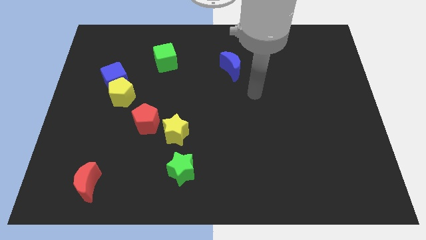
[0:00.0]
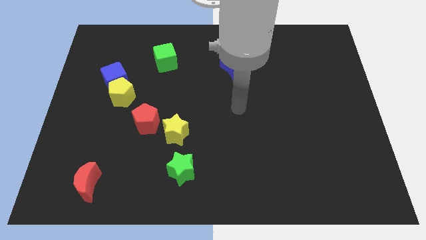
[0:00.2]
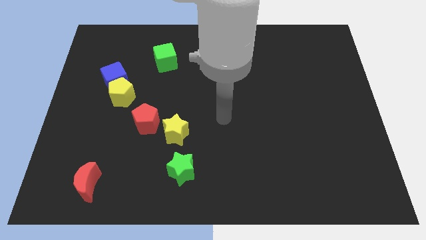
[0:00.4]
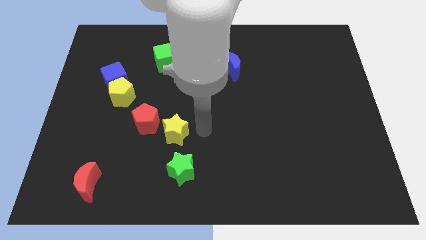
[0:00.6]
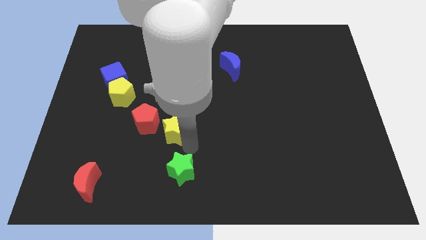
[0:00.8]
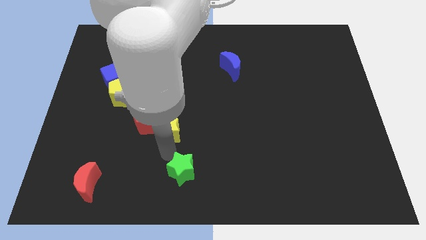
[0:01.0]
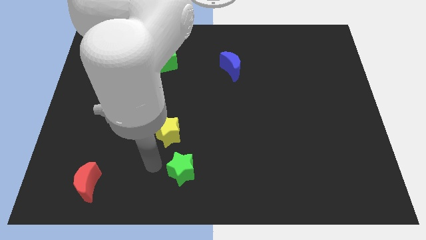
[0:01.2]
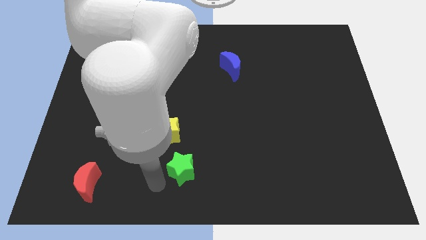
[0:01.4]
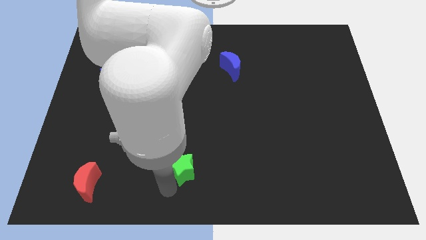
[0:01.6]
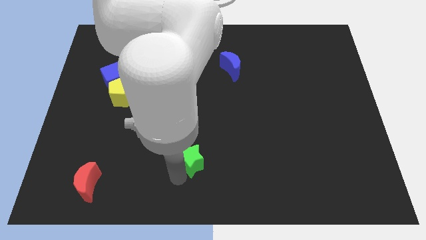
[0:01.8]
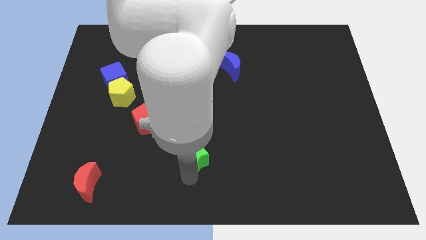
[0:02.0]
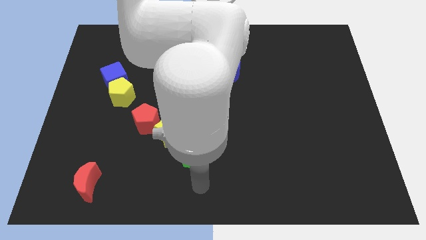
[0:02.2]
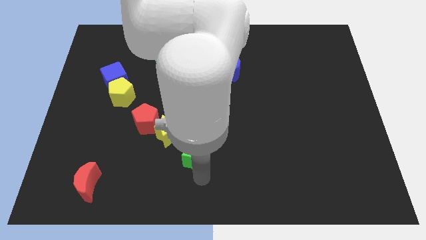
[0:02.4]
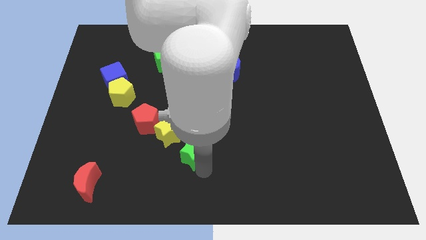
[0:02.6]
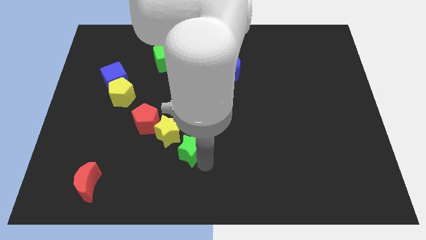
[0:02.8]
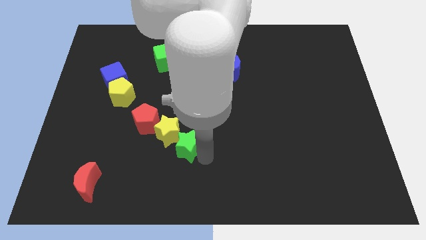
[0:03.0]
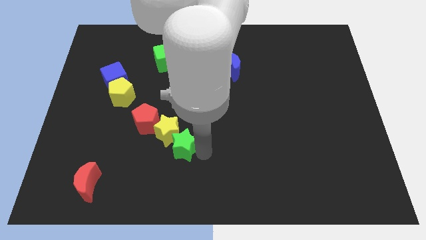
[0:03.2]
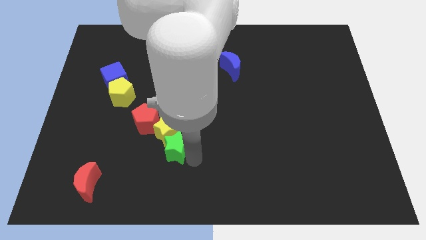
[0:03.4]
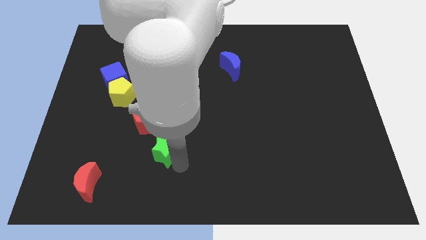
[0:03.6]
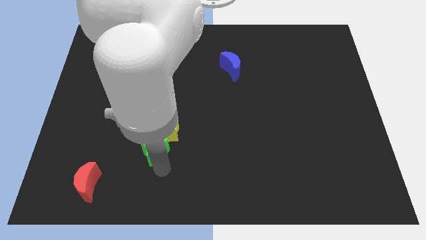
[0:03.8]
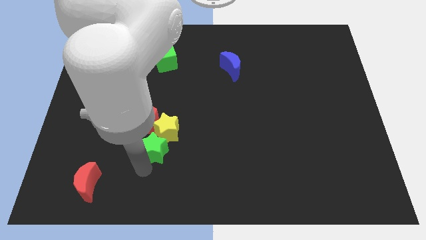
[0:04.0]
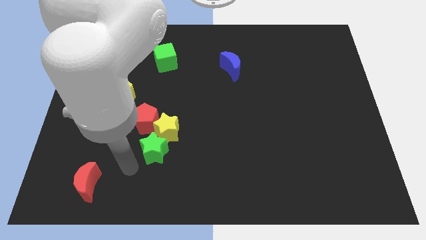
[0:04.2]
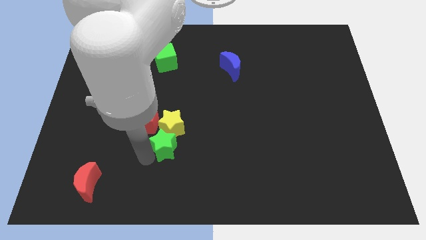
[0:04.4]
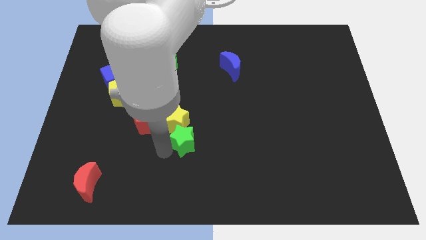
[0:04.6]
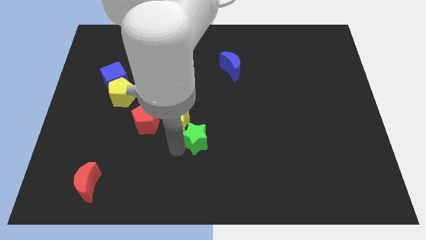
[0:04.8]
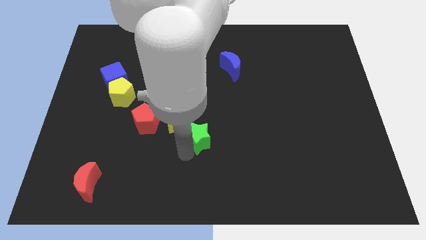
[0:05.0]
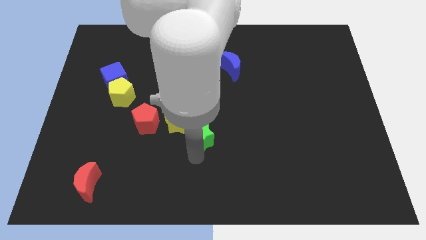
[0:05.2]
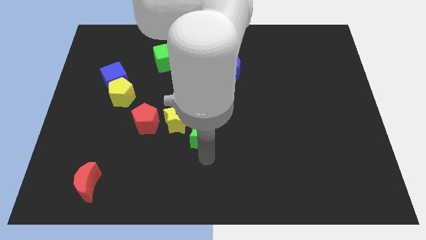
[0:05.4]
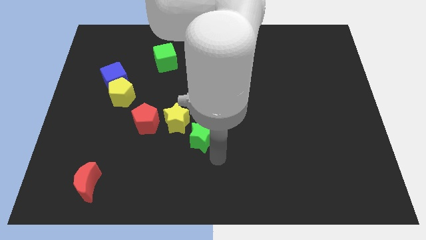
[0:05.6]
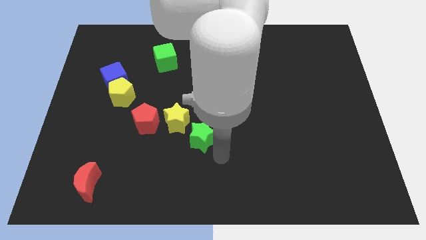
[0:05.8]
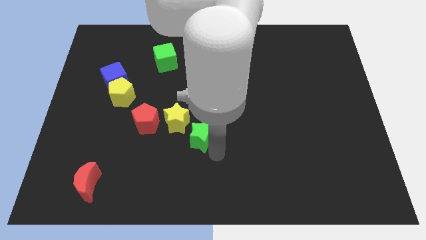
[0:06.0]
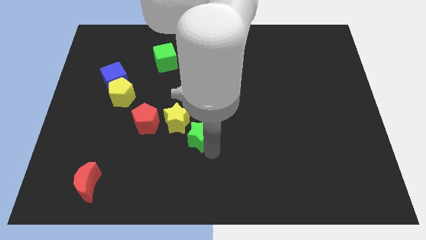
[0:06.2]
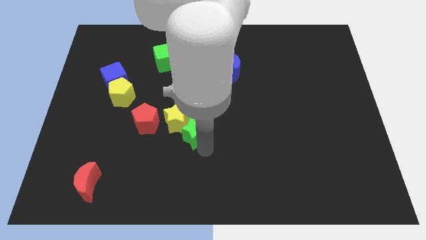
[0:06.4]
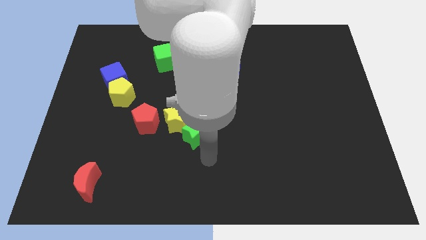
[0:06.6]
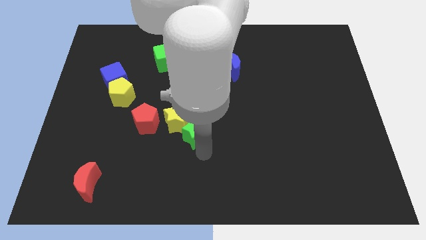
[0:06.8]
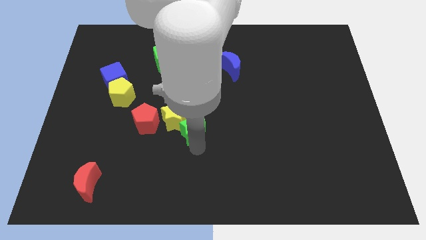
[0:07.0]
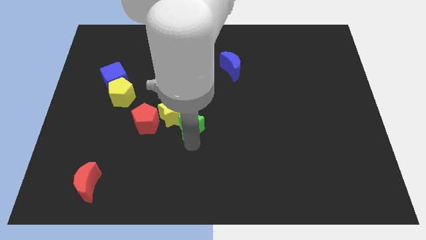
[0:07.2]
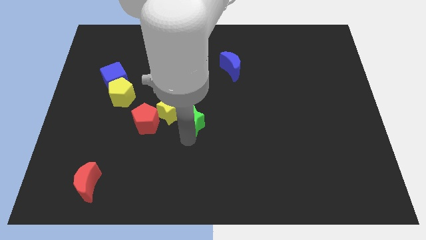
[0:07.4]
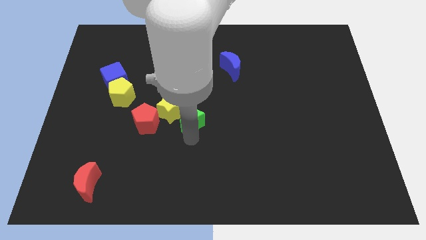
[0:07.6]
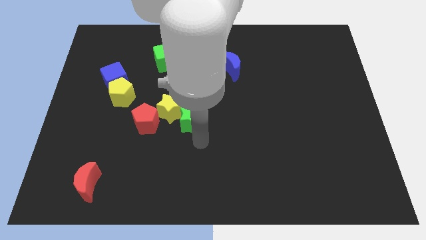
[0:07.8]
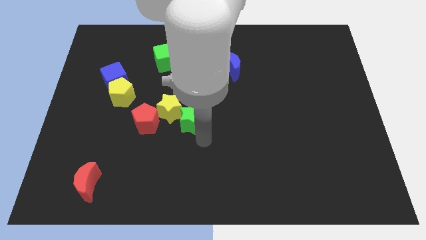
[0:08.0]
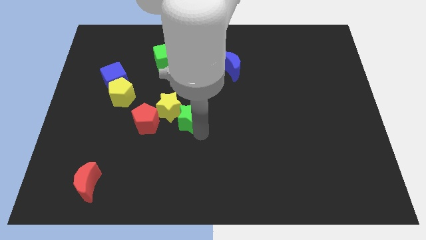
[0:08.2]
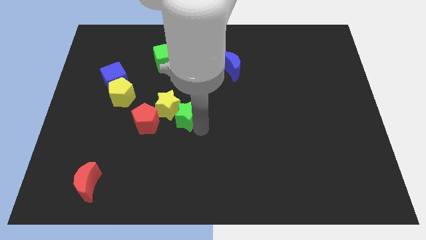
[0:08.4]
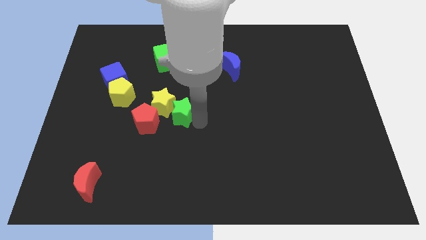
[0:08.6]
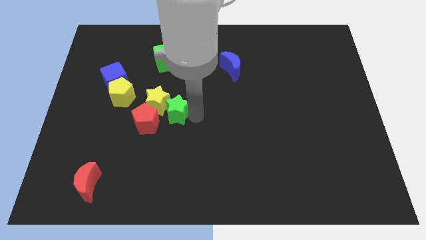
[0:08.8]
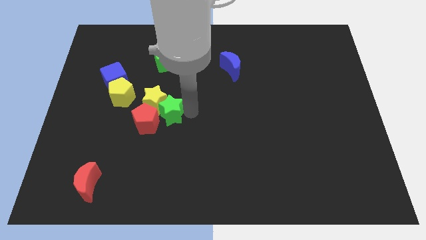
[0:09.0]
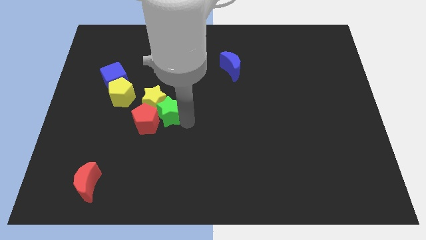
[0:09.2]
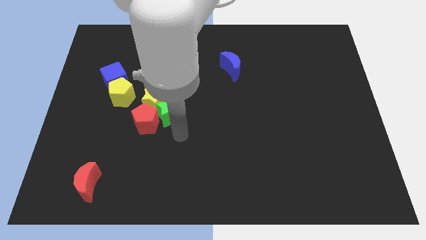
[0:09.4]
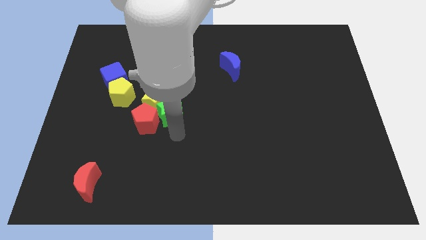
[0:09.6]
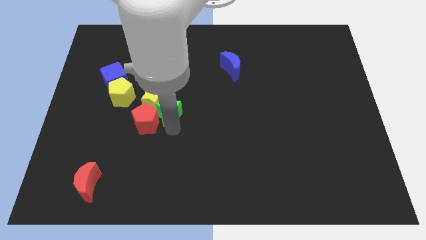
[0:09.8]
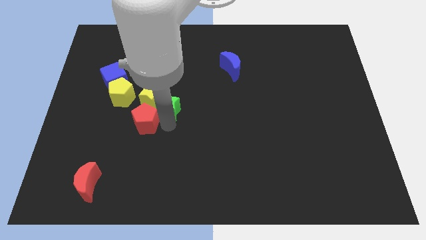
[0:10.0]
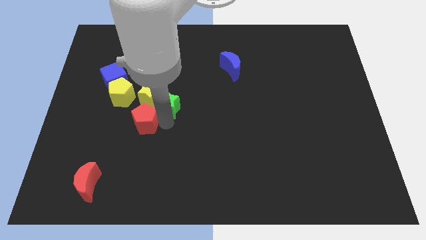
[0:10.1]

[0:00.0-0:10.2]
move the green star below the green cube

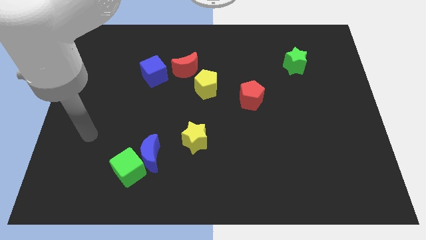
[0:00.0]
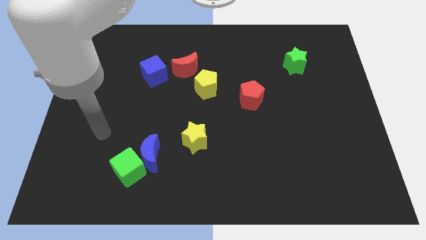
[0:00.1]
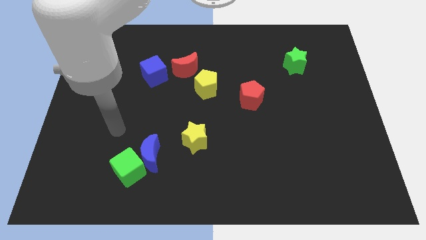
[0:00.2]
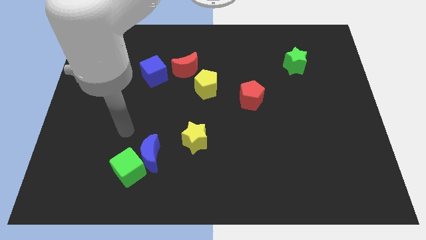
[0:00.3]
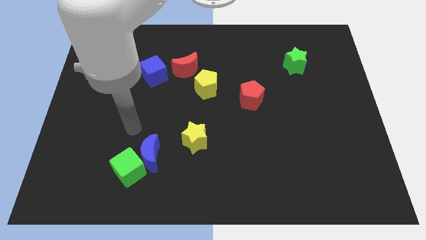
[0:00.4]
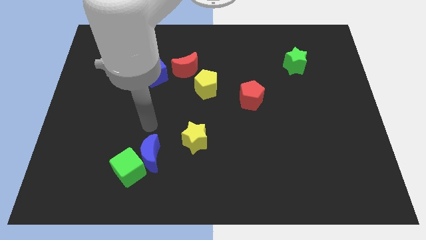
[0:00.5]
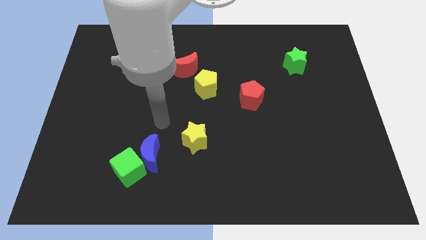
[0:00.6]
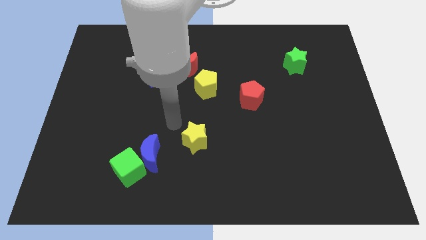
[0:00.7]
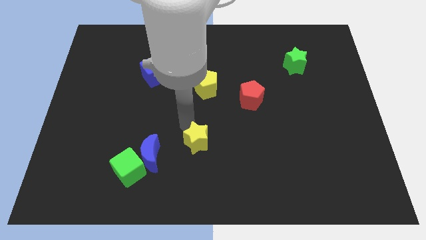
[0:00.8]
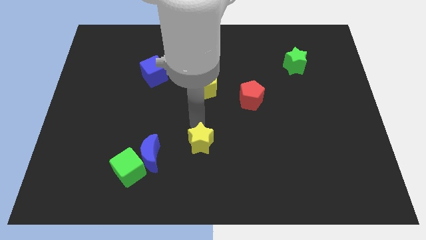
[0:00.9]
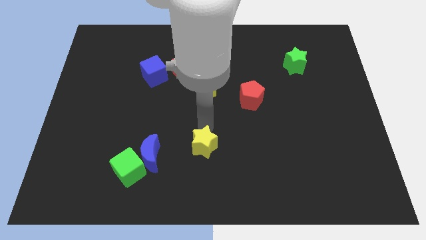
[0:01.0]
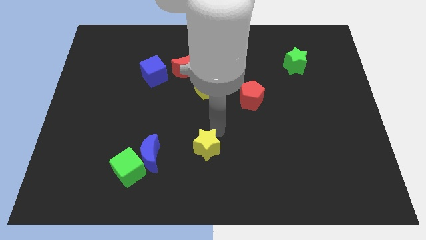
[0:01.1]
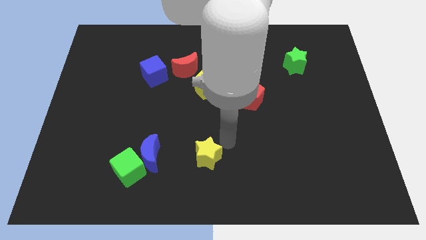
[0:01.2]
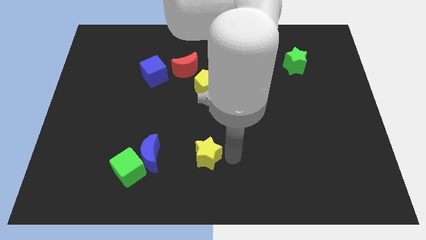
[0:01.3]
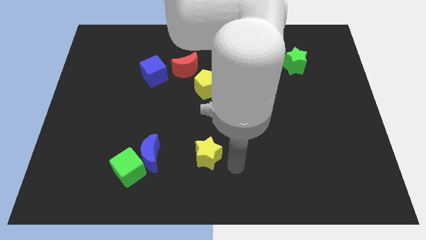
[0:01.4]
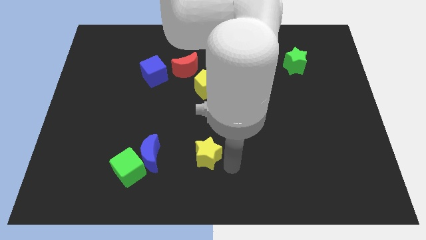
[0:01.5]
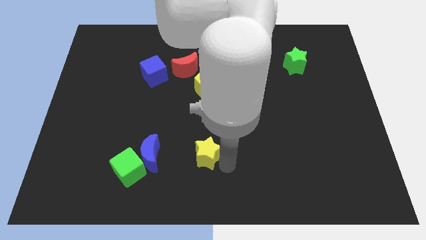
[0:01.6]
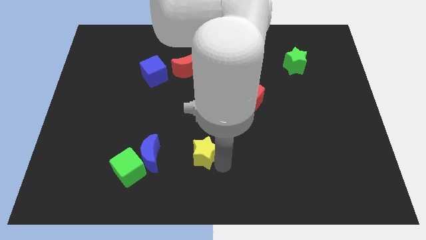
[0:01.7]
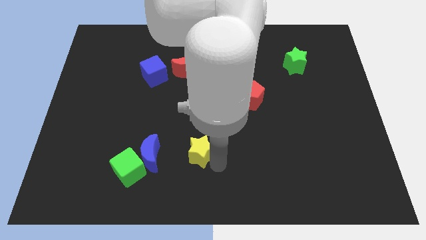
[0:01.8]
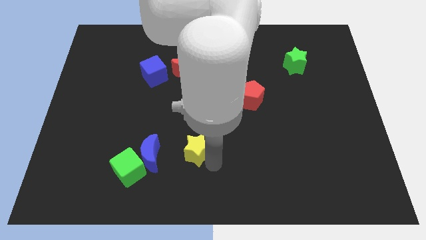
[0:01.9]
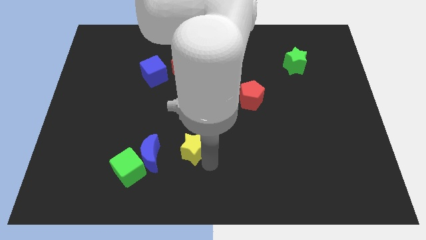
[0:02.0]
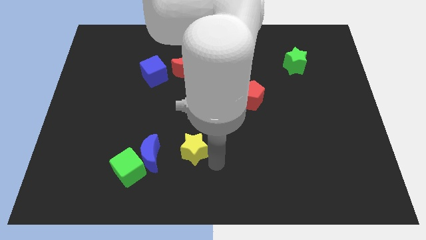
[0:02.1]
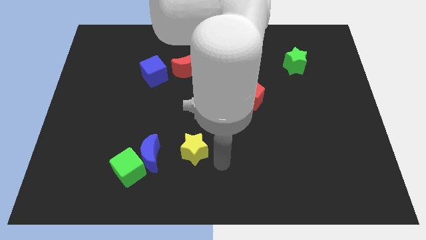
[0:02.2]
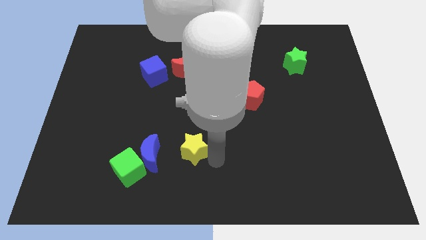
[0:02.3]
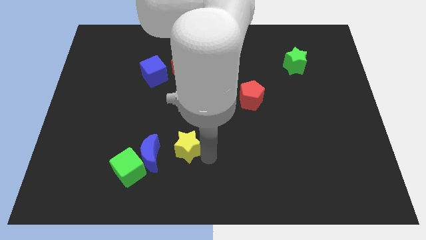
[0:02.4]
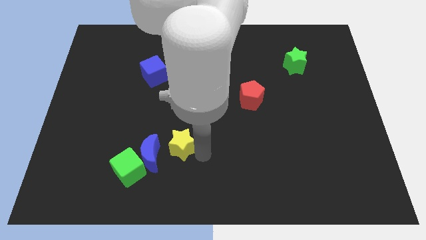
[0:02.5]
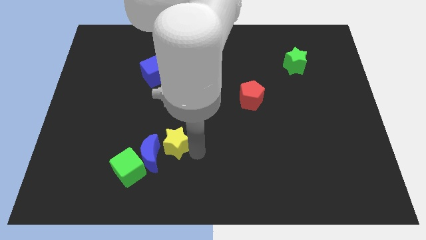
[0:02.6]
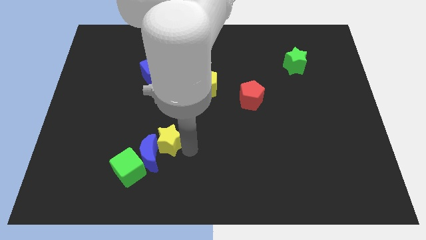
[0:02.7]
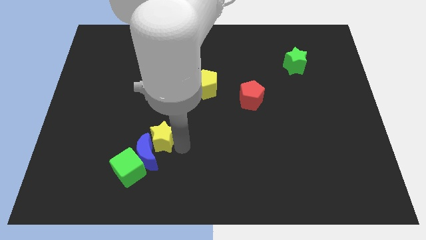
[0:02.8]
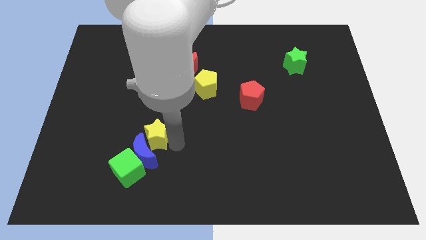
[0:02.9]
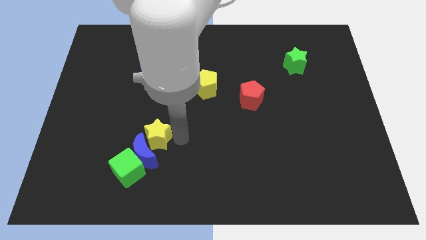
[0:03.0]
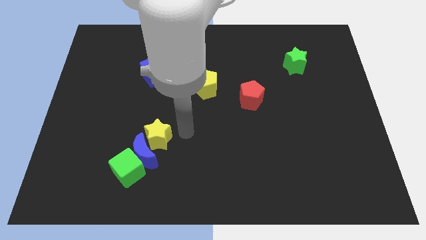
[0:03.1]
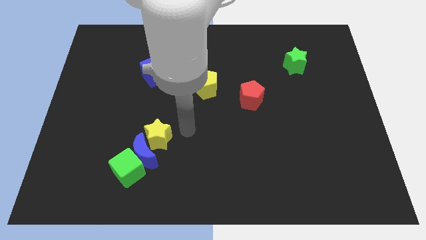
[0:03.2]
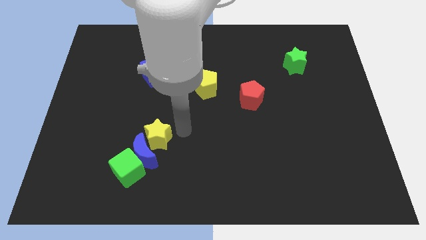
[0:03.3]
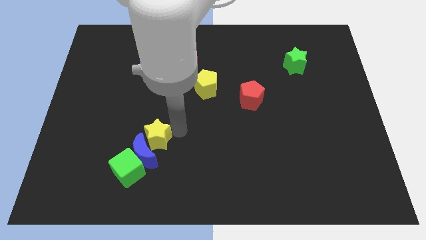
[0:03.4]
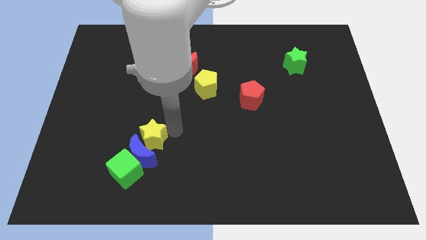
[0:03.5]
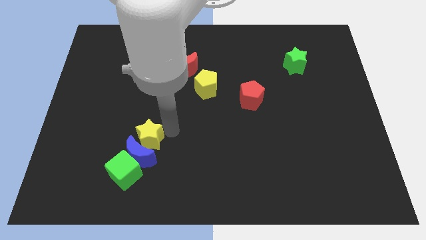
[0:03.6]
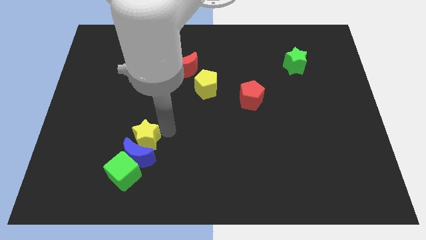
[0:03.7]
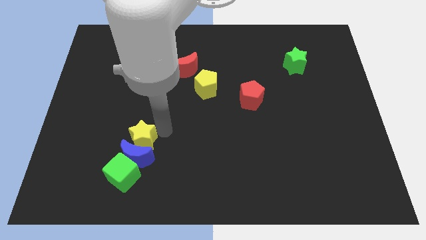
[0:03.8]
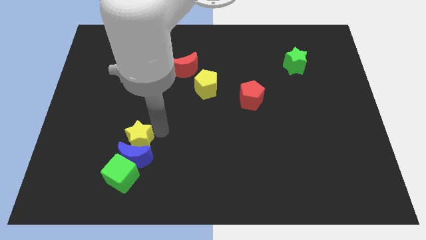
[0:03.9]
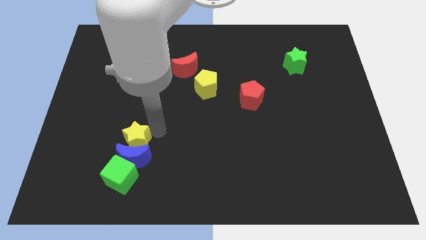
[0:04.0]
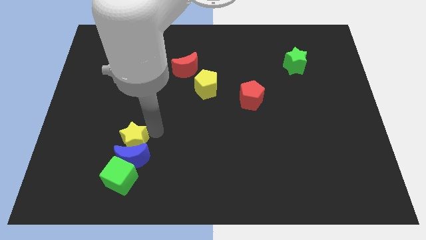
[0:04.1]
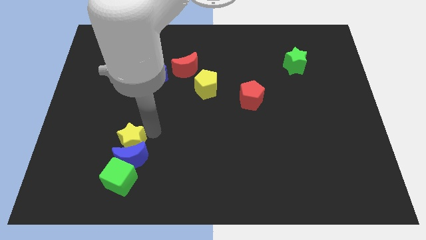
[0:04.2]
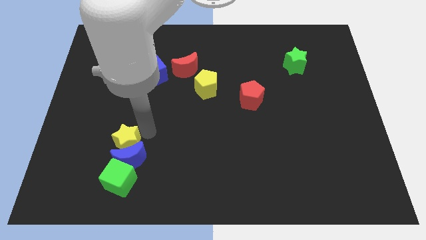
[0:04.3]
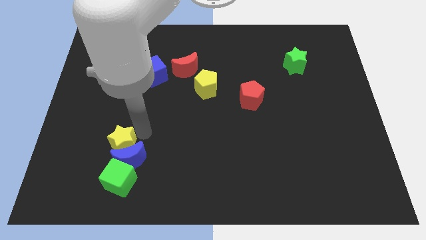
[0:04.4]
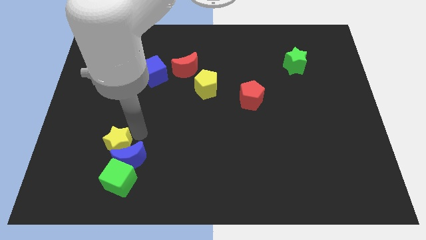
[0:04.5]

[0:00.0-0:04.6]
slide the yellow star left of the blue moon
